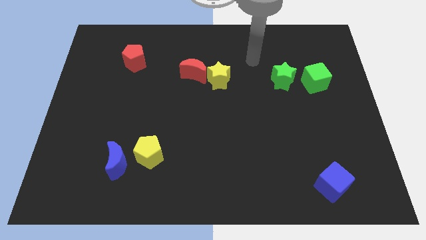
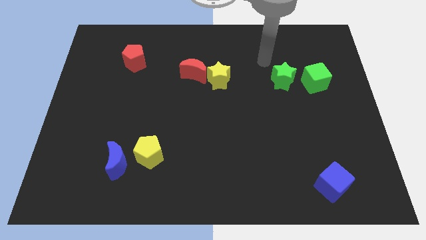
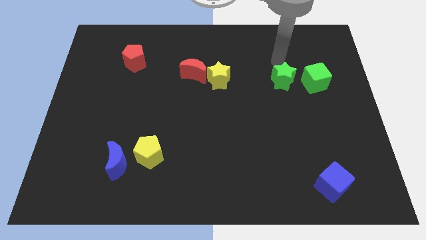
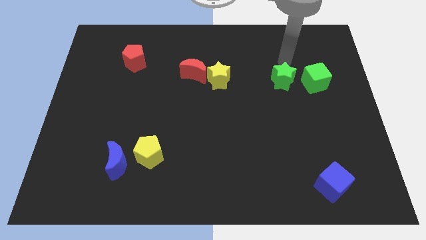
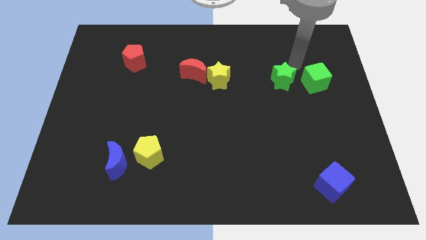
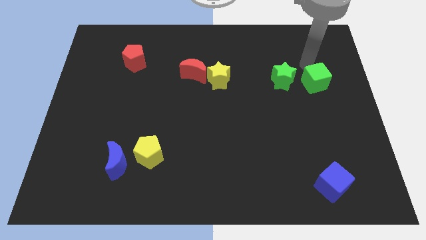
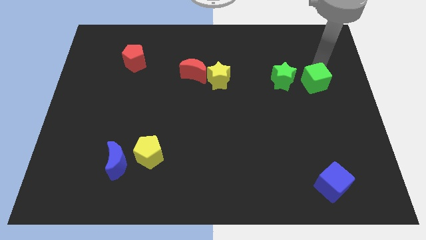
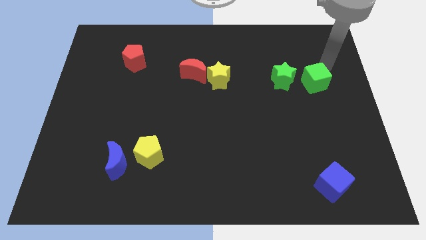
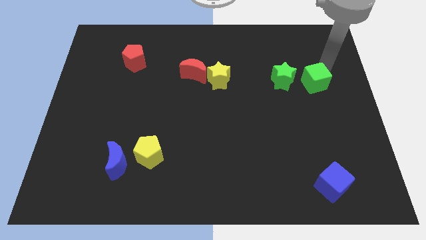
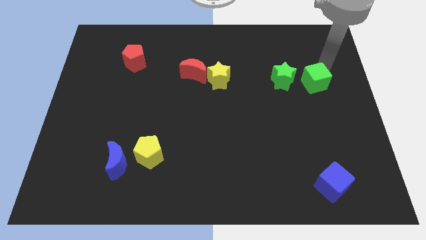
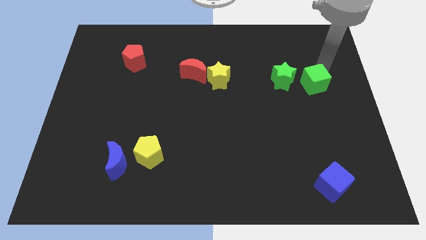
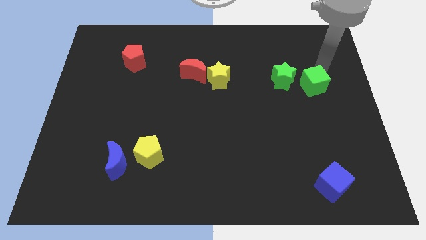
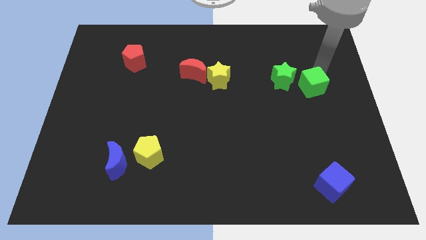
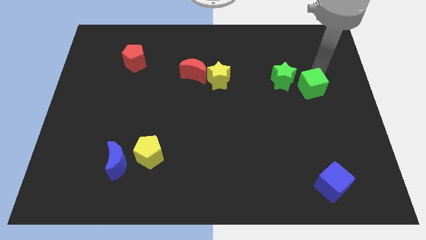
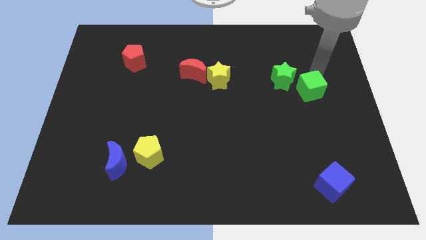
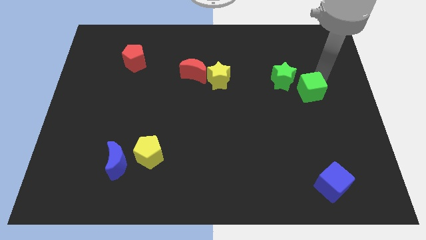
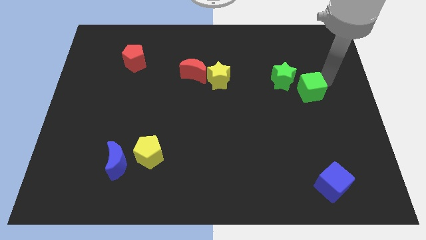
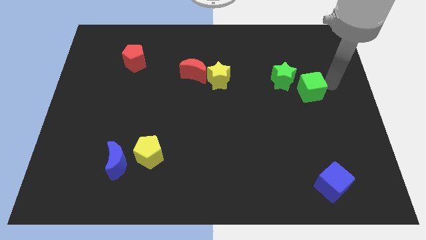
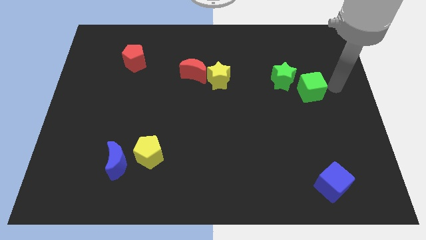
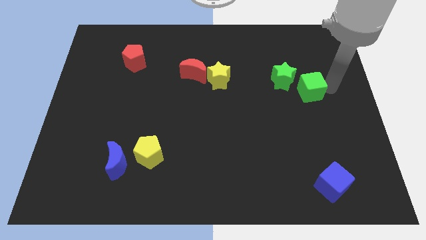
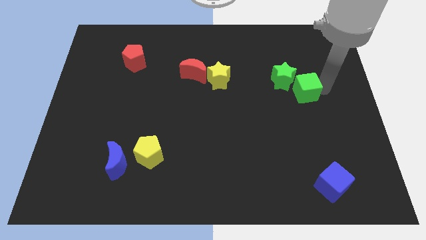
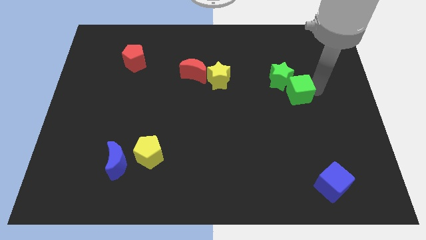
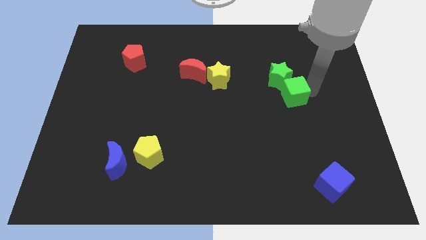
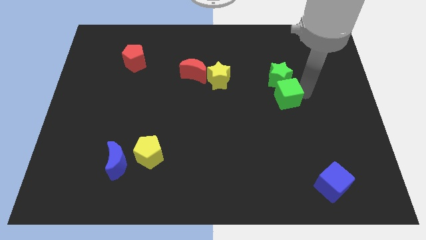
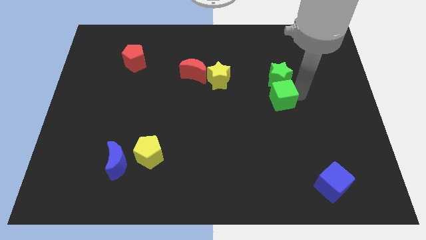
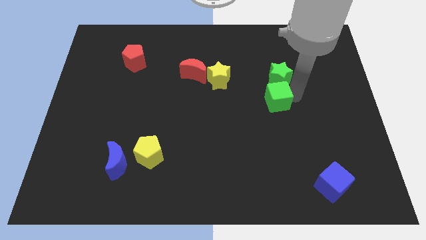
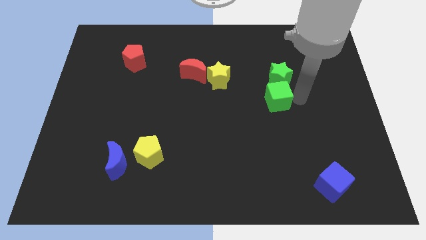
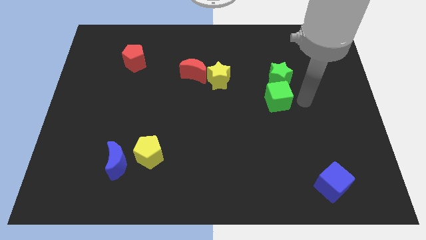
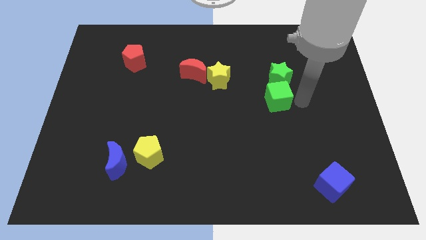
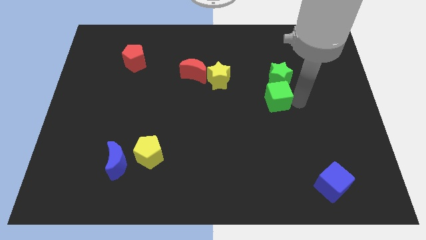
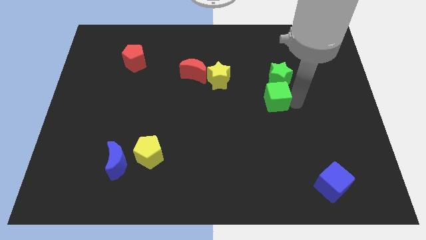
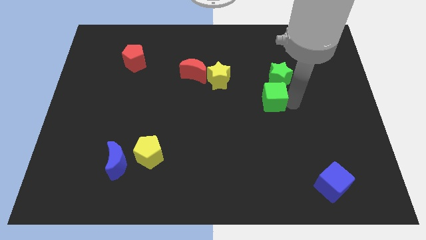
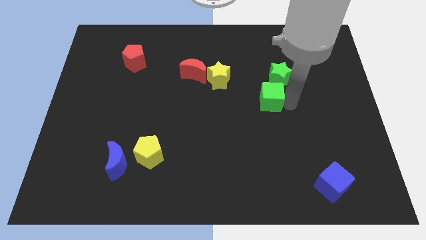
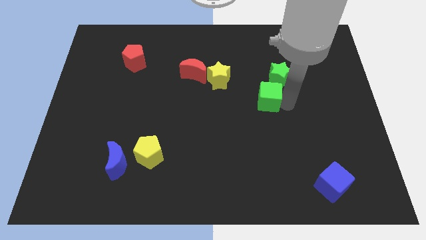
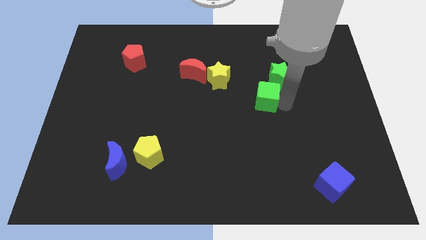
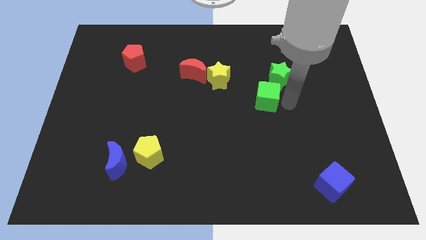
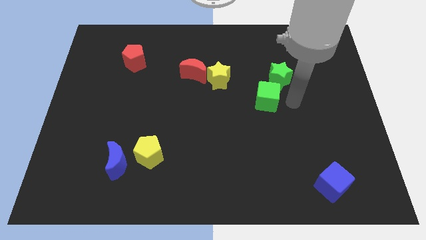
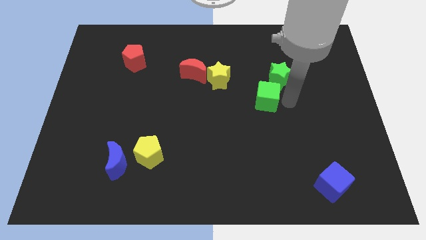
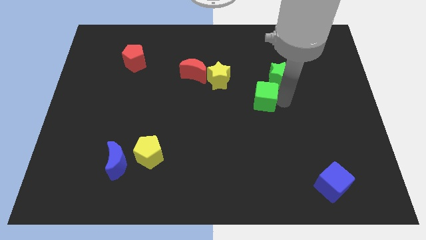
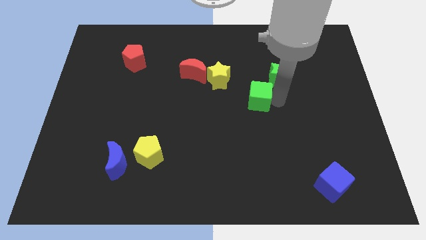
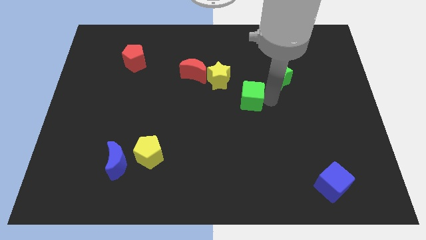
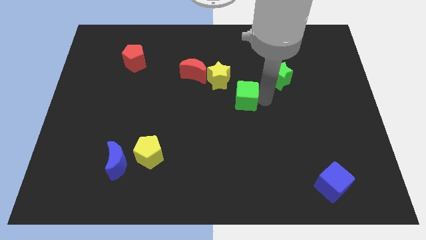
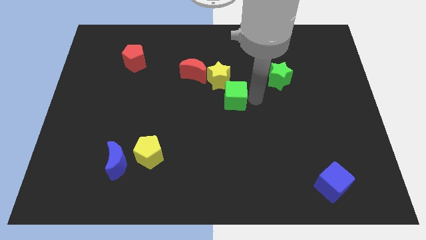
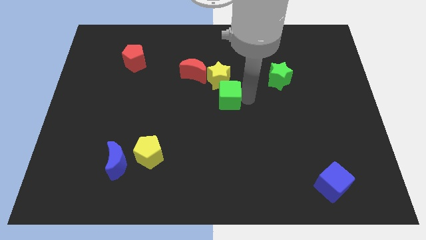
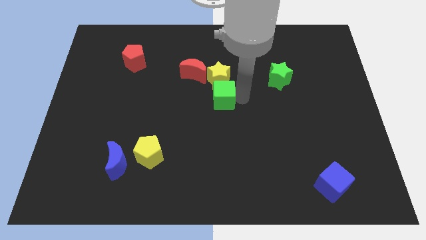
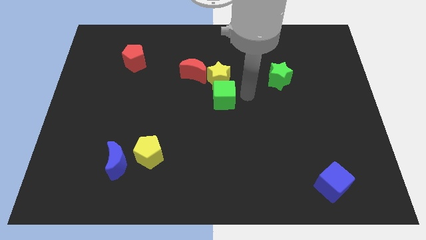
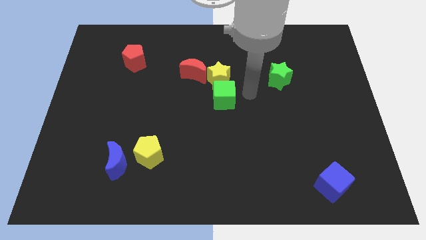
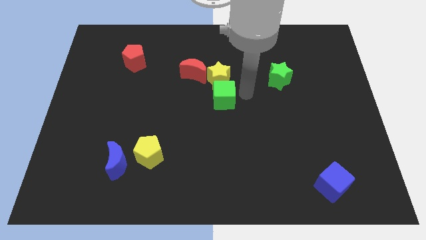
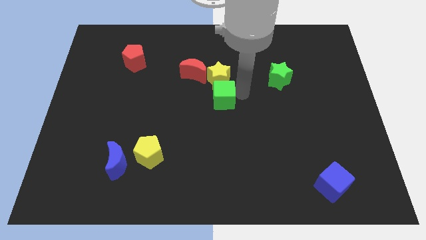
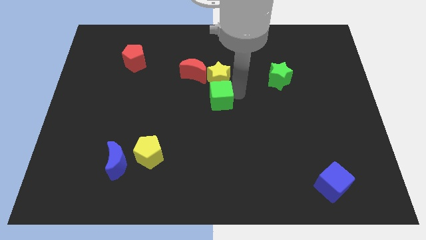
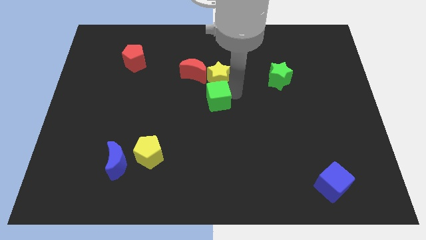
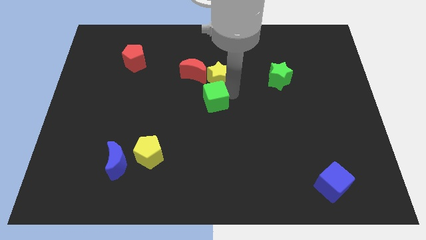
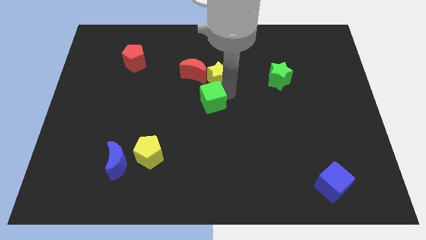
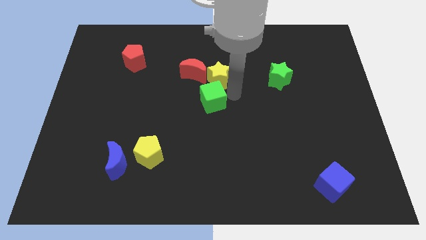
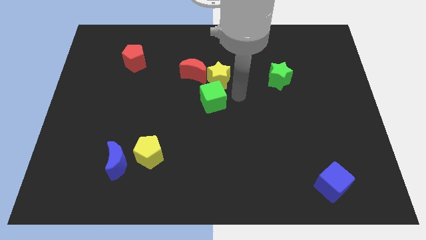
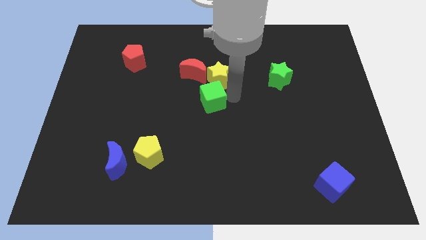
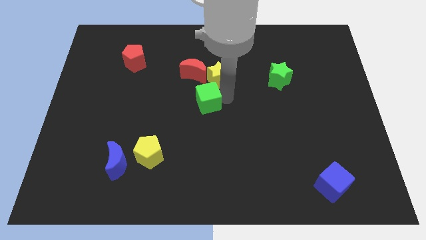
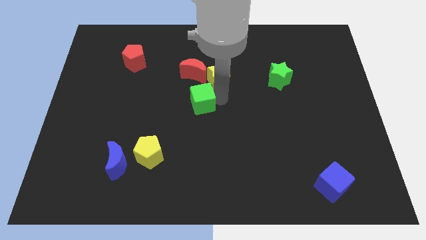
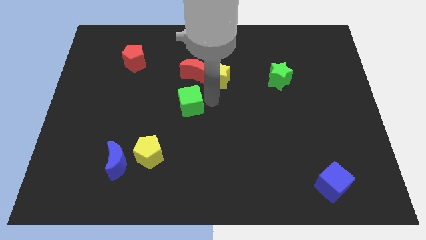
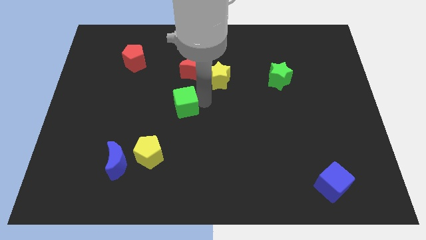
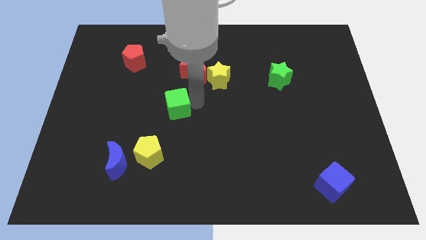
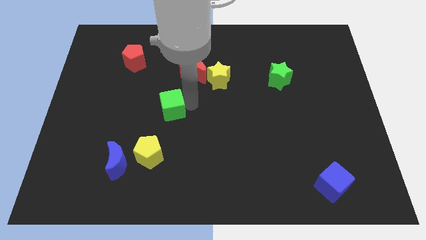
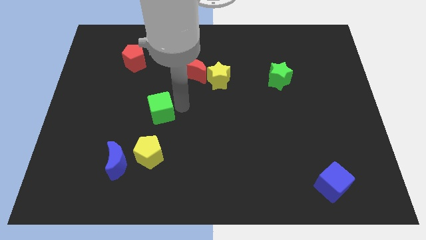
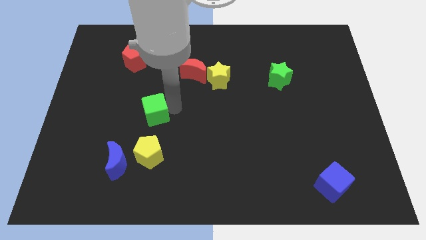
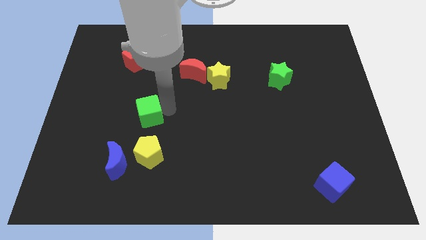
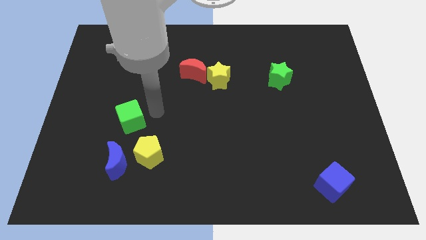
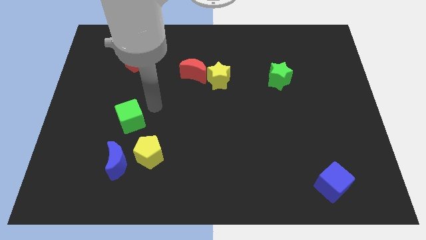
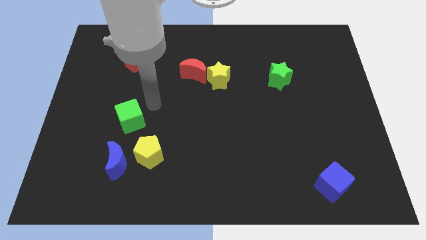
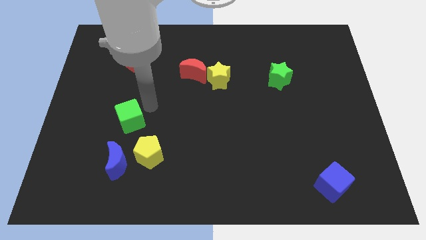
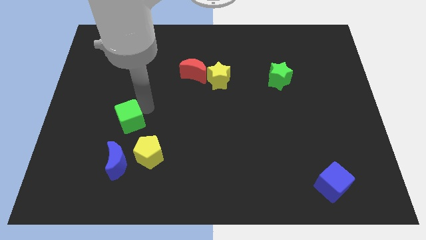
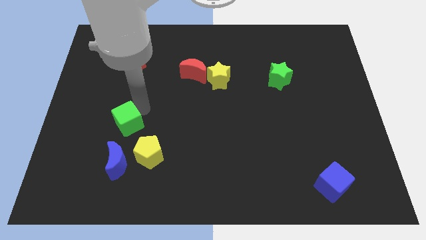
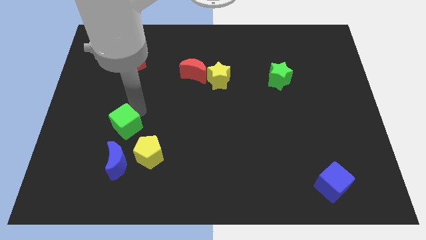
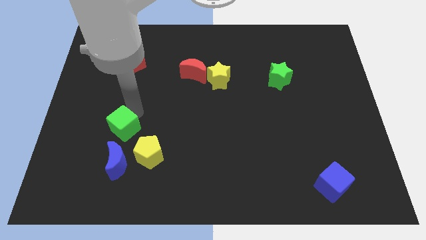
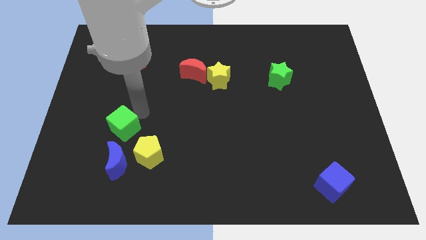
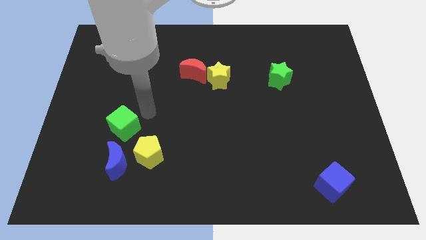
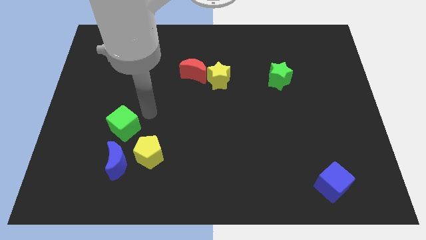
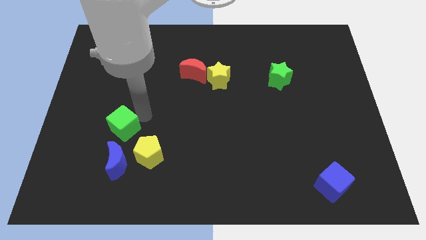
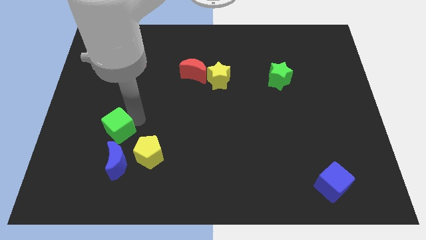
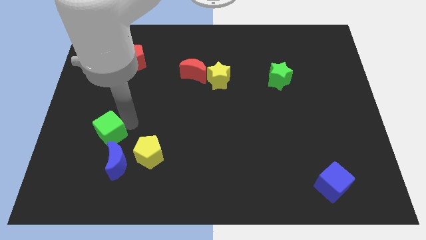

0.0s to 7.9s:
move the green cube to the top left side of the blue moon
